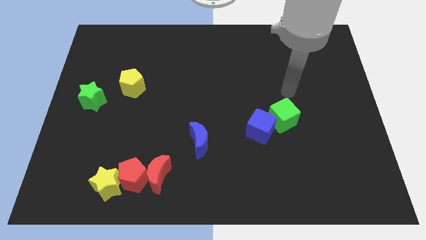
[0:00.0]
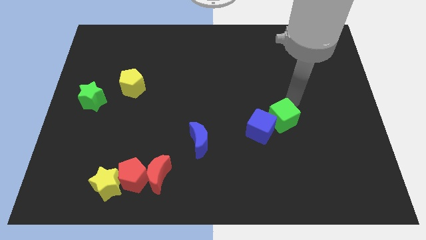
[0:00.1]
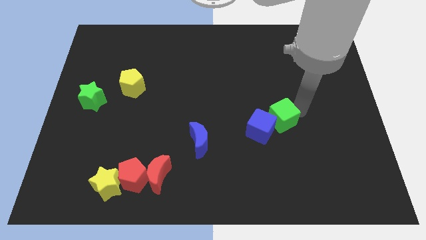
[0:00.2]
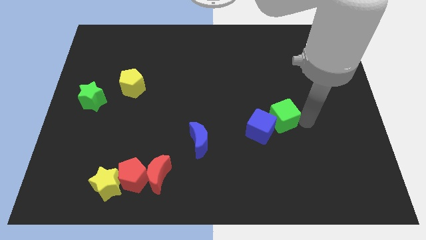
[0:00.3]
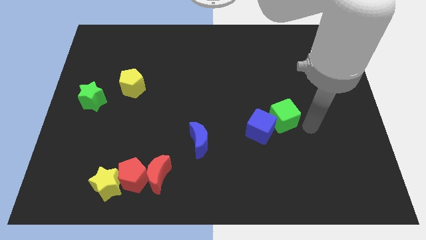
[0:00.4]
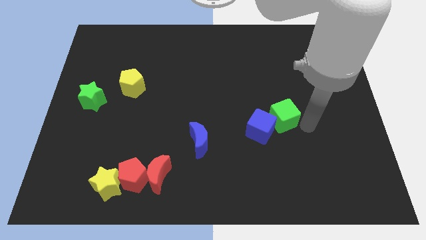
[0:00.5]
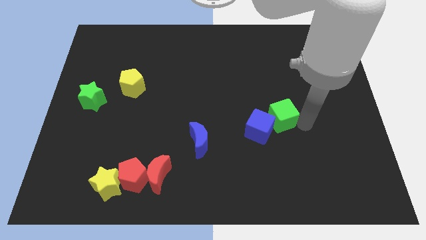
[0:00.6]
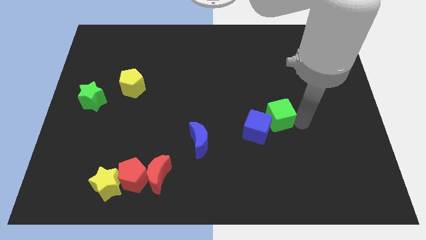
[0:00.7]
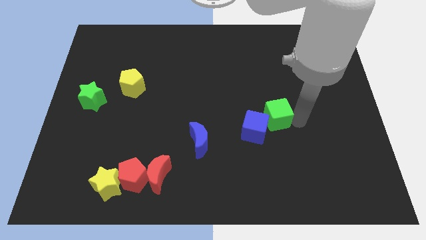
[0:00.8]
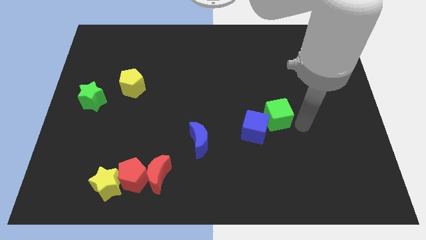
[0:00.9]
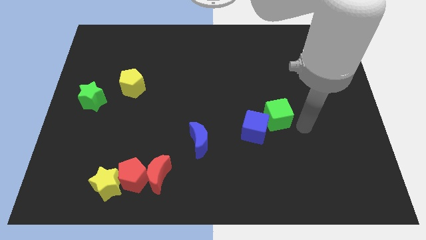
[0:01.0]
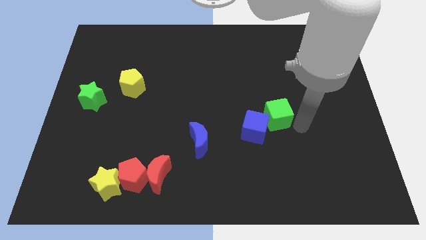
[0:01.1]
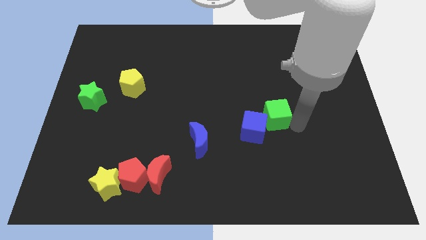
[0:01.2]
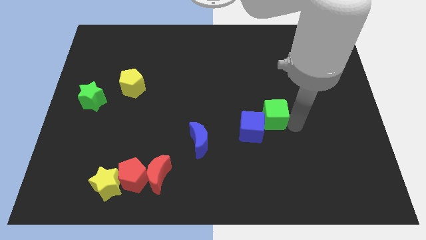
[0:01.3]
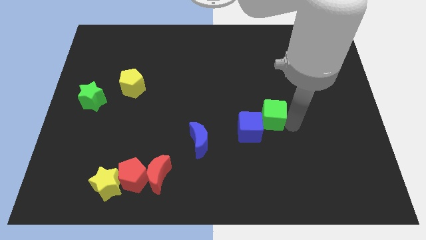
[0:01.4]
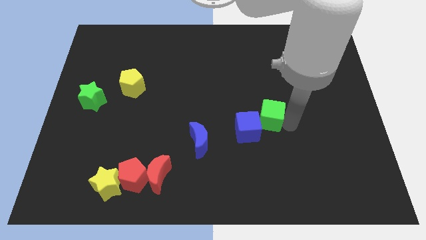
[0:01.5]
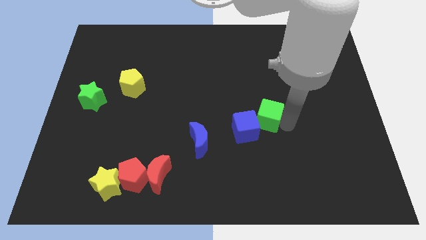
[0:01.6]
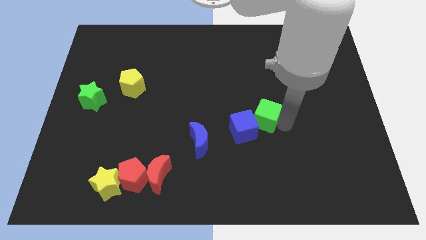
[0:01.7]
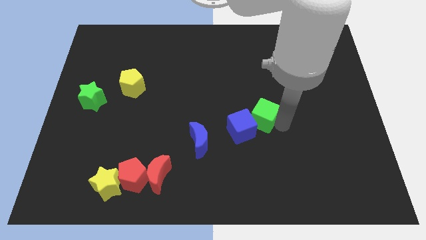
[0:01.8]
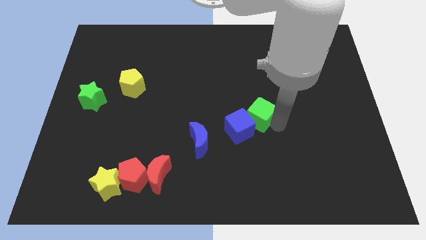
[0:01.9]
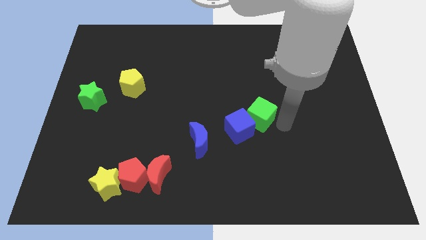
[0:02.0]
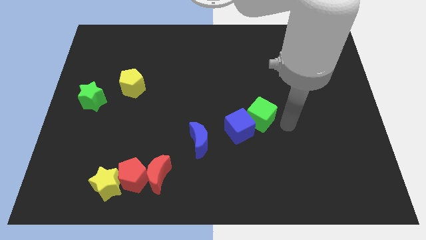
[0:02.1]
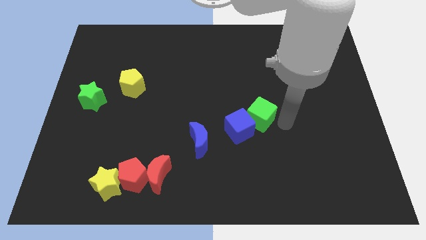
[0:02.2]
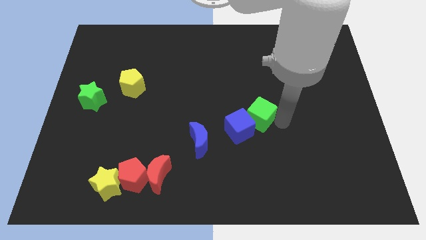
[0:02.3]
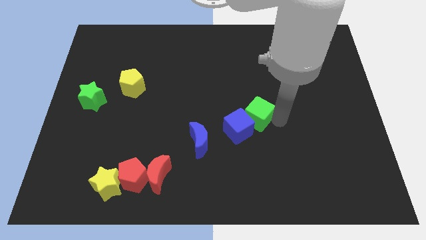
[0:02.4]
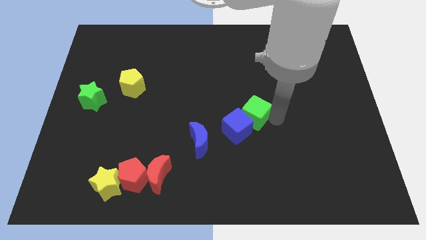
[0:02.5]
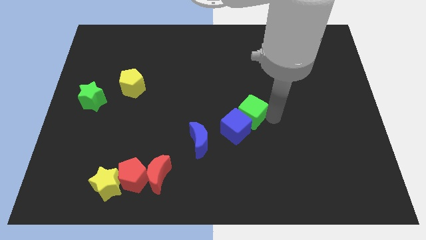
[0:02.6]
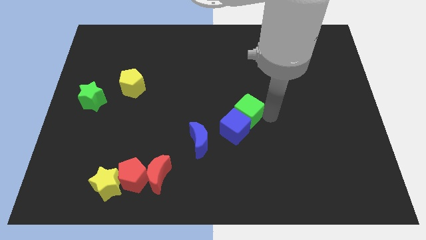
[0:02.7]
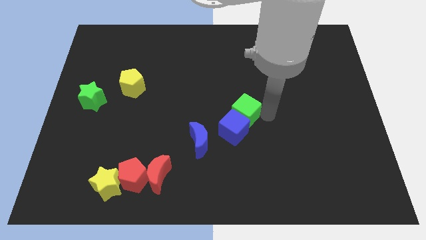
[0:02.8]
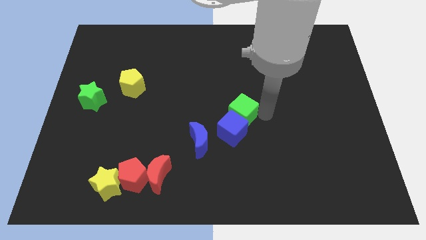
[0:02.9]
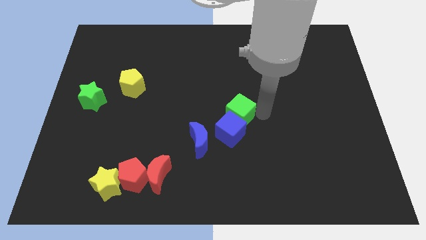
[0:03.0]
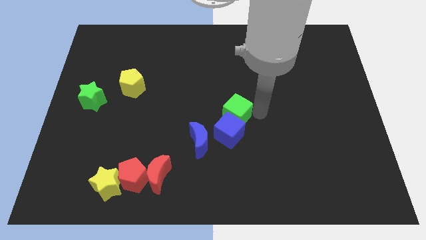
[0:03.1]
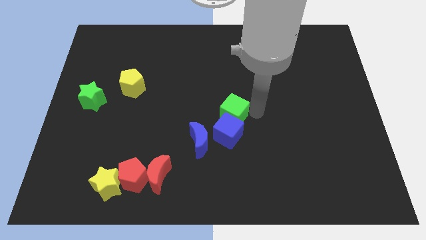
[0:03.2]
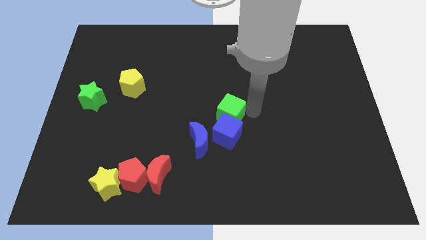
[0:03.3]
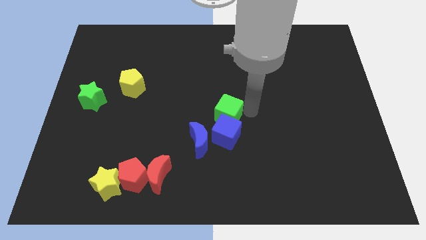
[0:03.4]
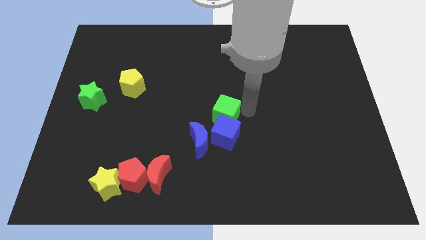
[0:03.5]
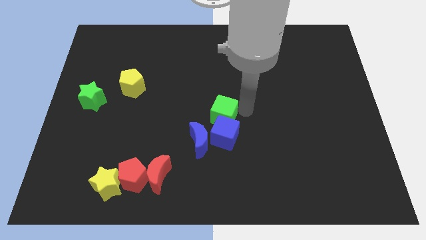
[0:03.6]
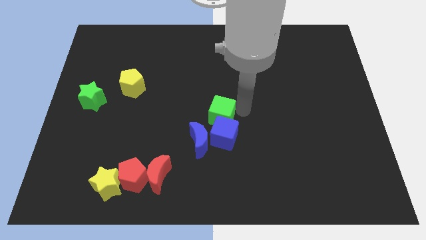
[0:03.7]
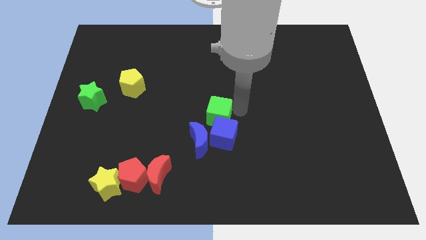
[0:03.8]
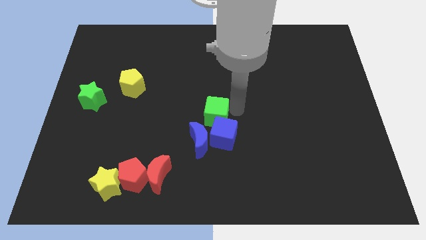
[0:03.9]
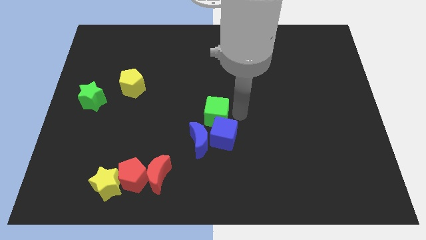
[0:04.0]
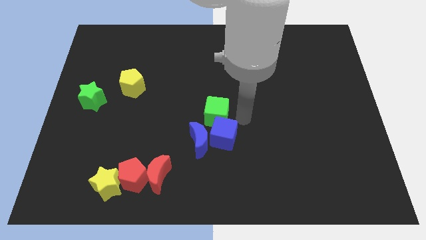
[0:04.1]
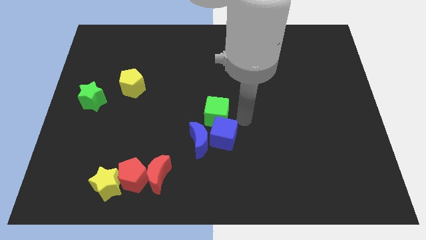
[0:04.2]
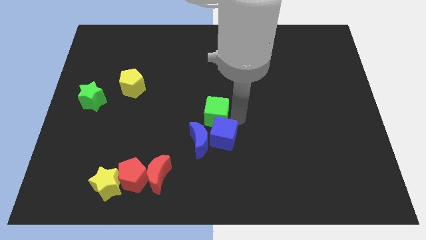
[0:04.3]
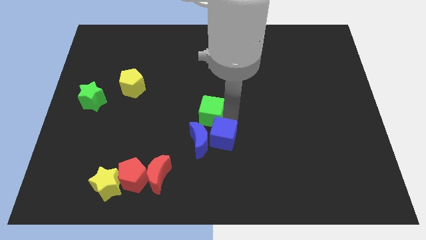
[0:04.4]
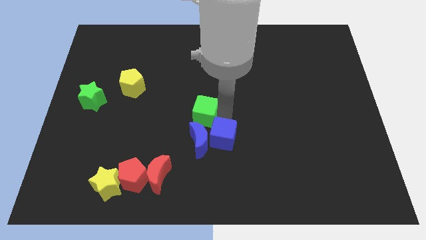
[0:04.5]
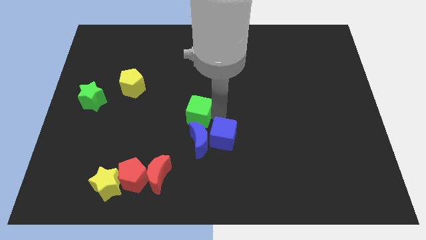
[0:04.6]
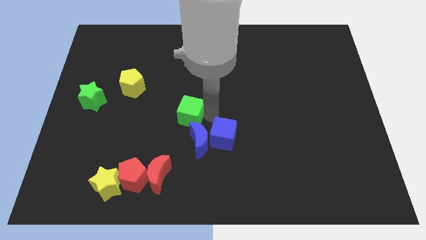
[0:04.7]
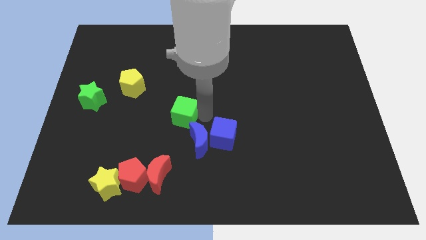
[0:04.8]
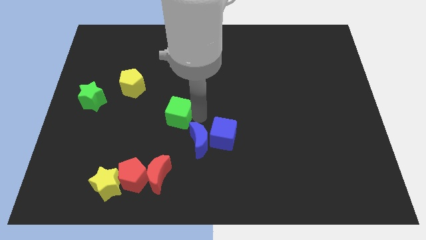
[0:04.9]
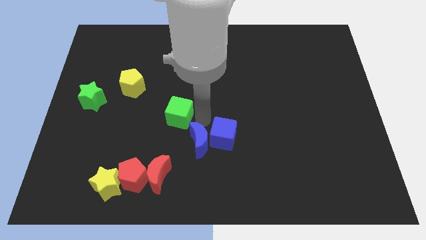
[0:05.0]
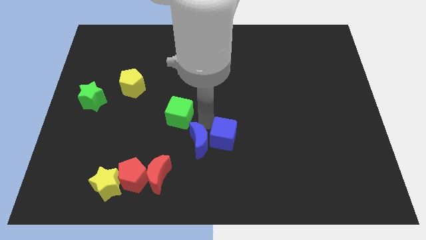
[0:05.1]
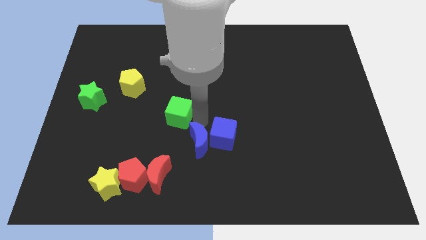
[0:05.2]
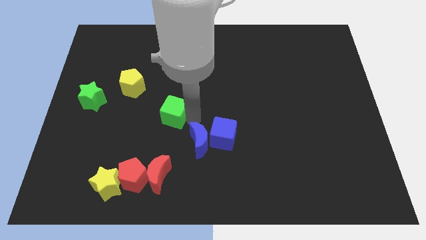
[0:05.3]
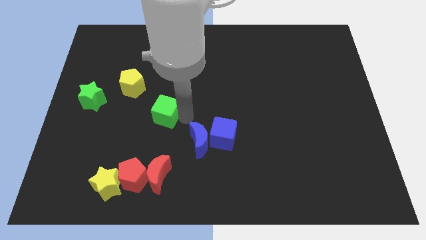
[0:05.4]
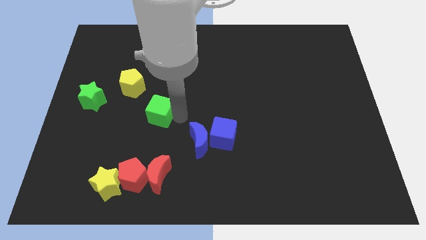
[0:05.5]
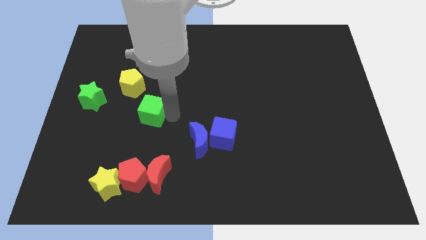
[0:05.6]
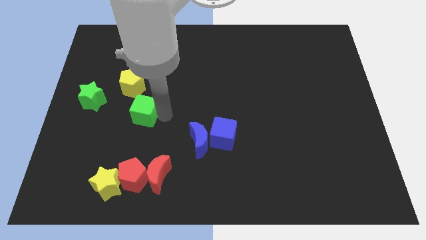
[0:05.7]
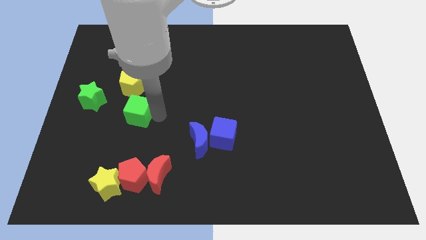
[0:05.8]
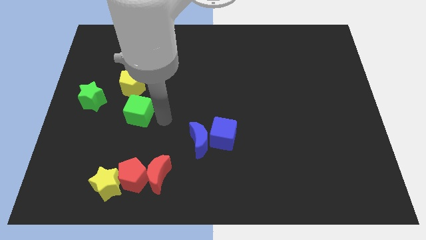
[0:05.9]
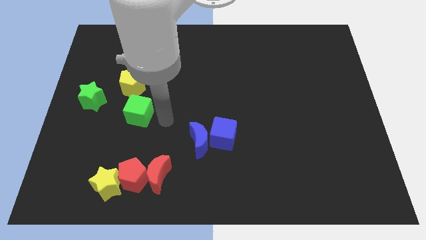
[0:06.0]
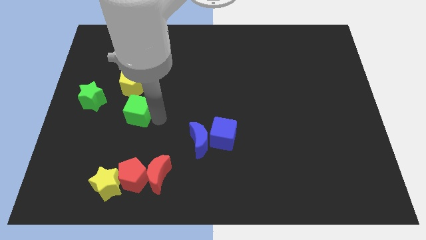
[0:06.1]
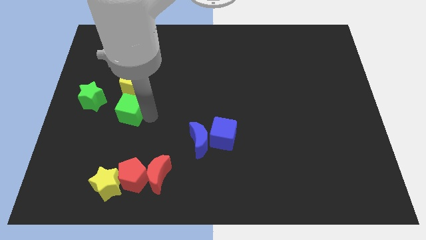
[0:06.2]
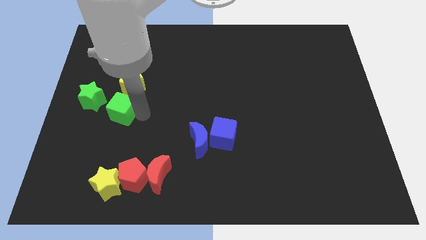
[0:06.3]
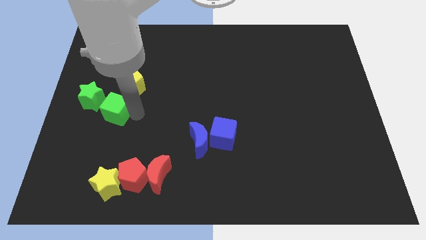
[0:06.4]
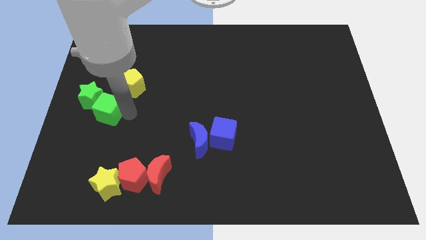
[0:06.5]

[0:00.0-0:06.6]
move the green cube towards the green star
